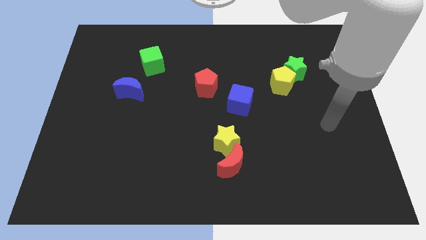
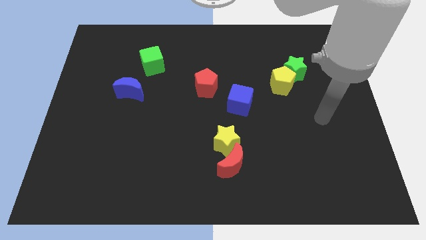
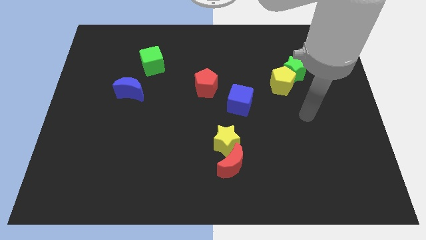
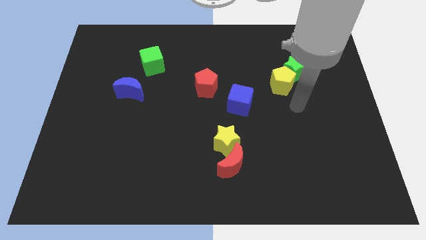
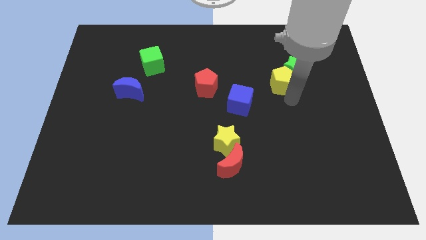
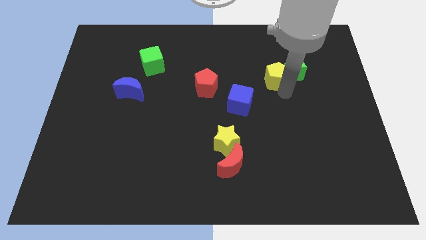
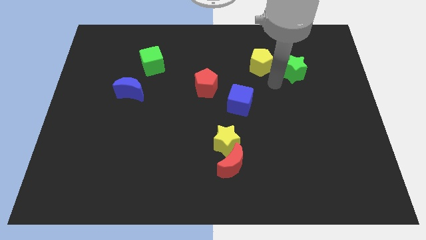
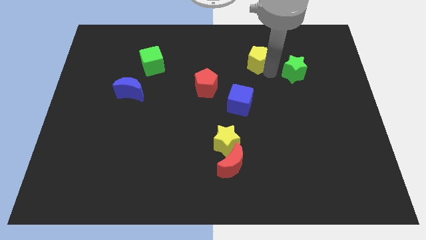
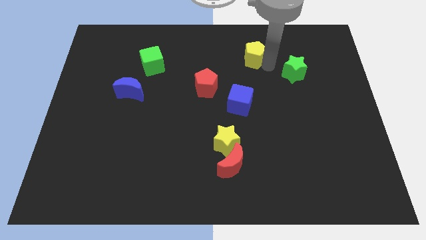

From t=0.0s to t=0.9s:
separate the green star from the yellow pentagon

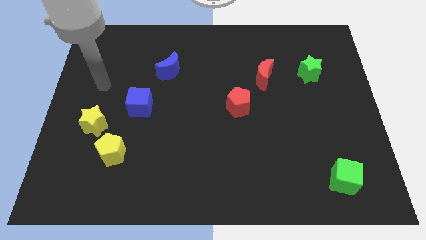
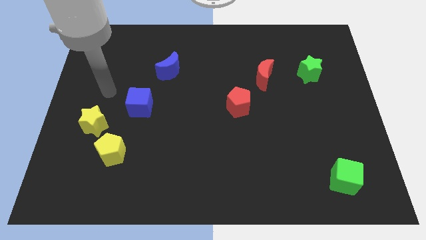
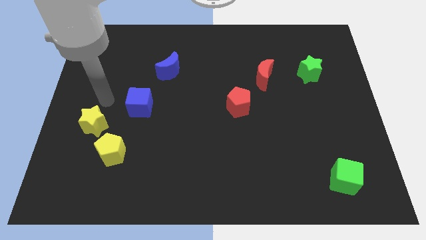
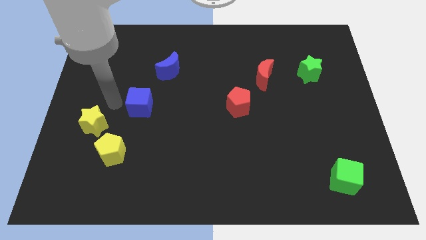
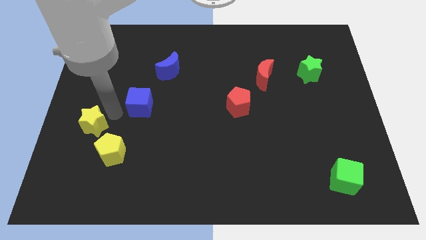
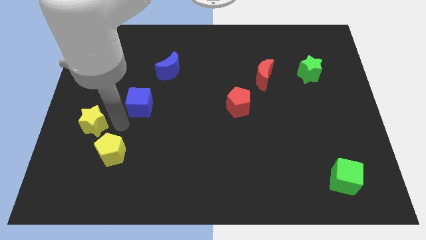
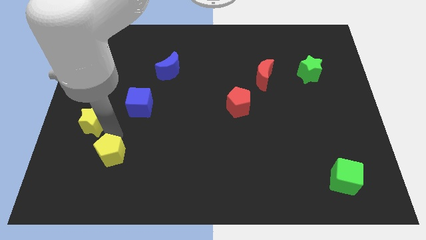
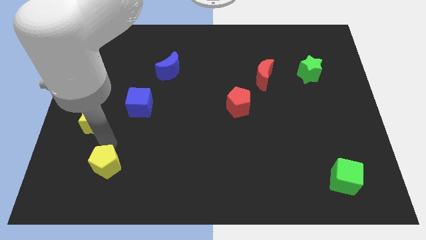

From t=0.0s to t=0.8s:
pull the yellow star apart from the yellow pentagon

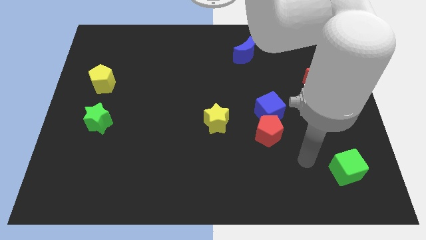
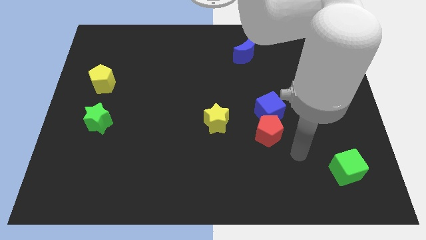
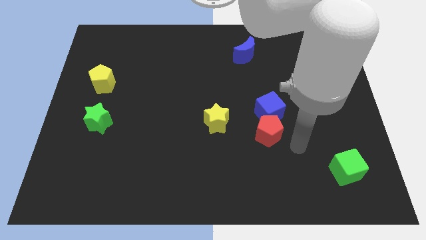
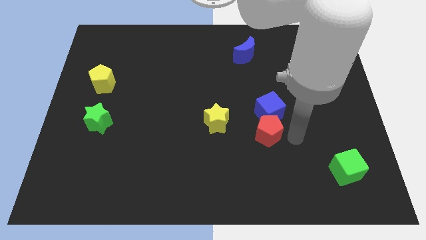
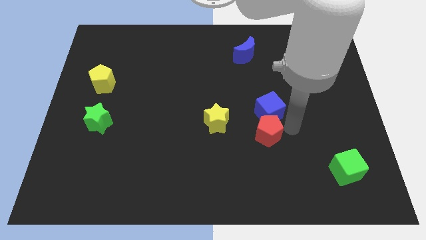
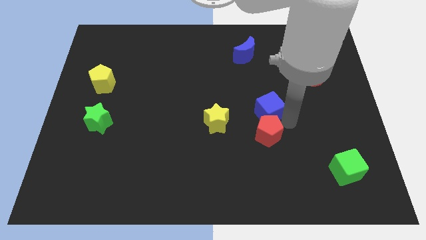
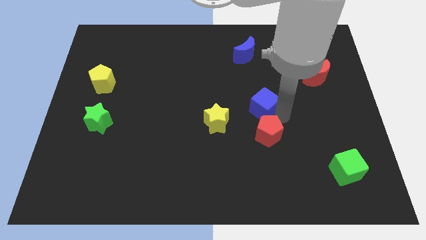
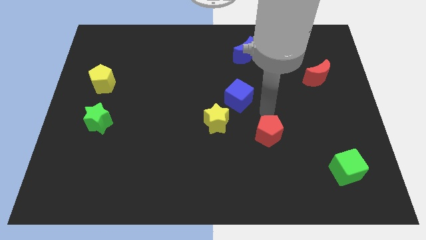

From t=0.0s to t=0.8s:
move the red pentagon away from the blue cube

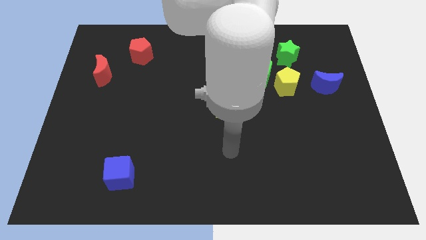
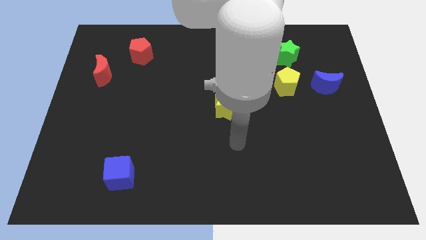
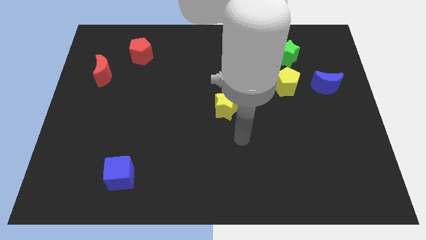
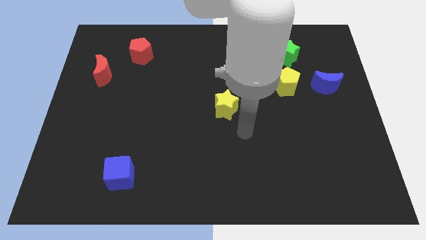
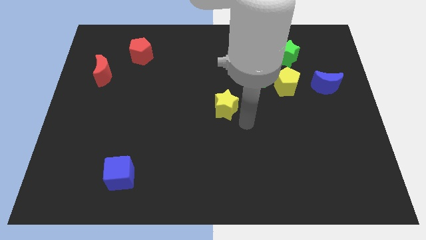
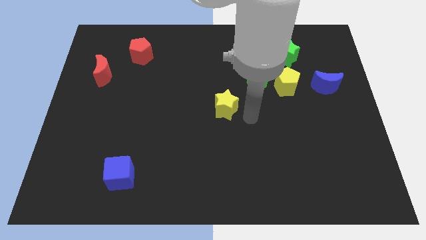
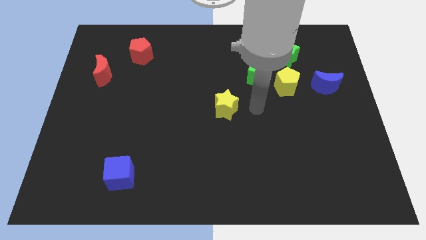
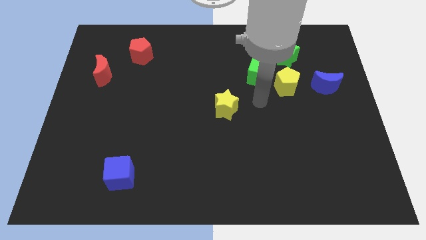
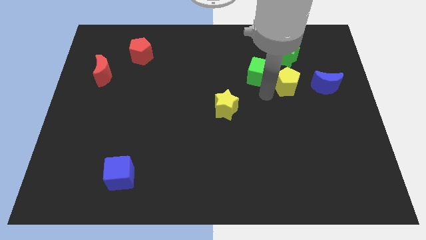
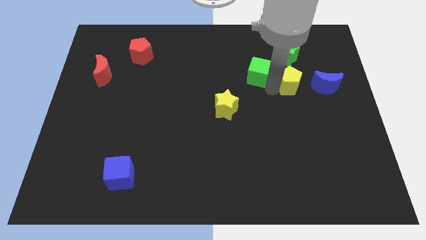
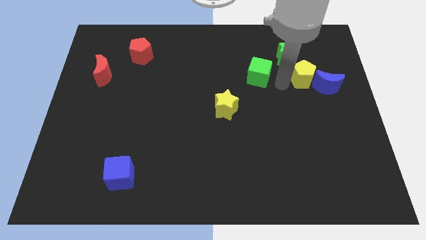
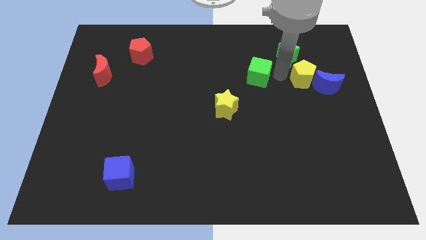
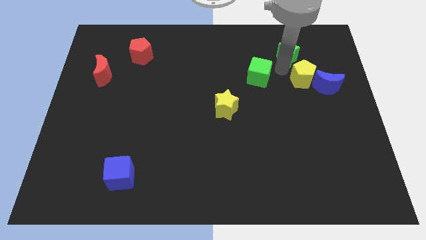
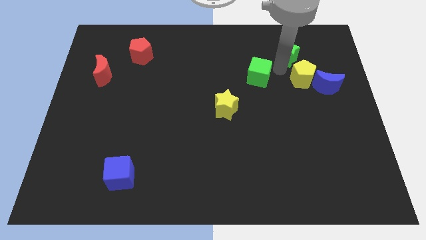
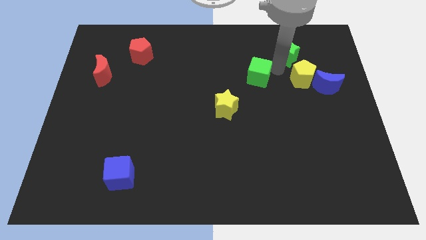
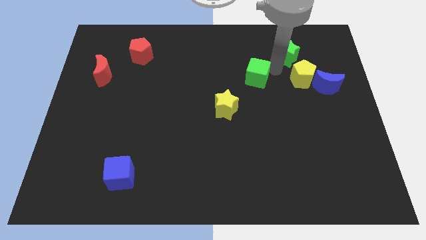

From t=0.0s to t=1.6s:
separate the green cube from the yellow pentagon and green star

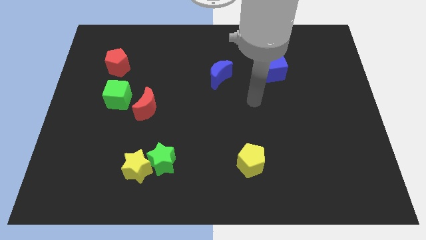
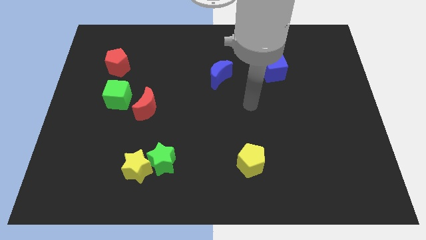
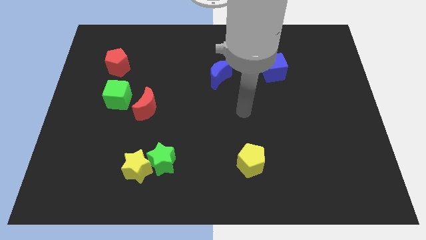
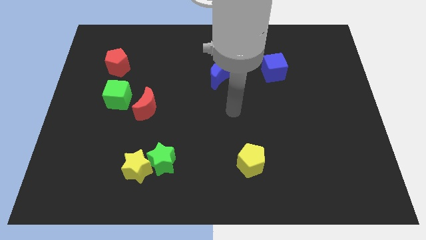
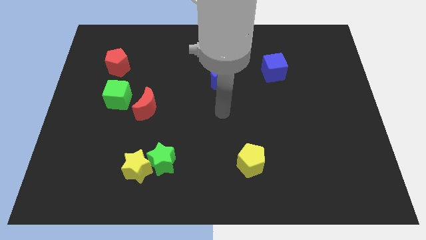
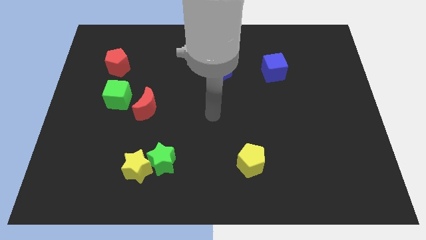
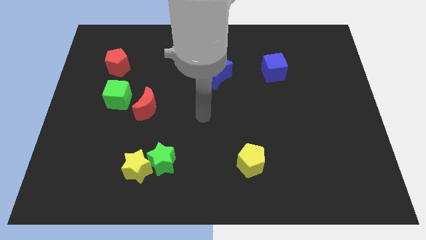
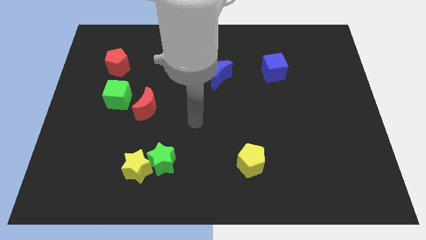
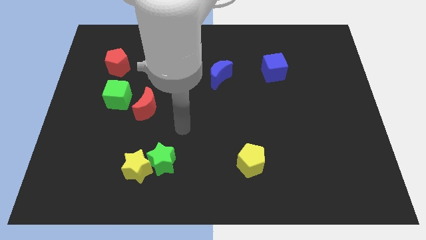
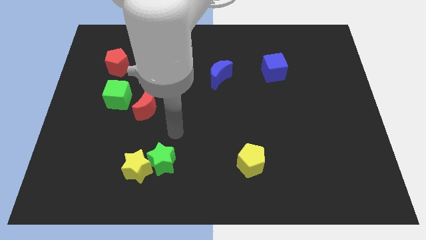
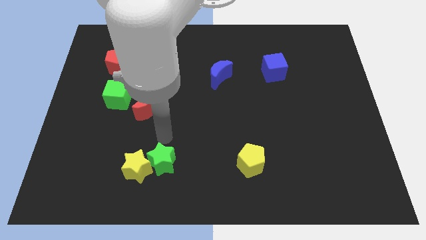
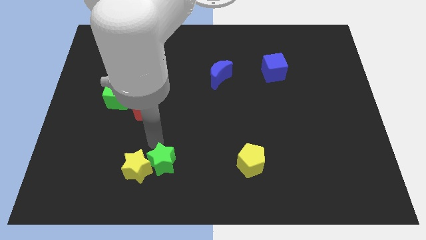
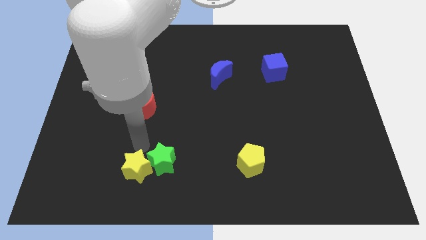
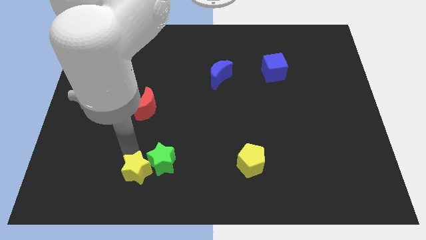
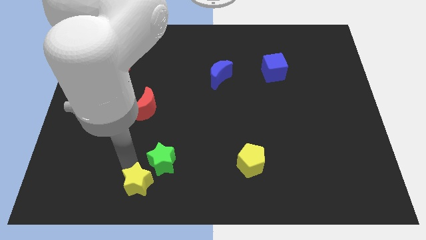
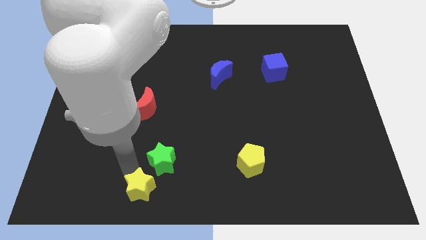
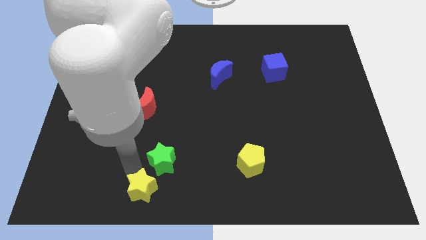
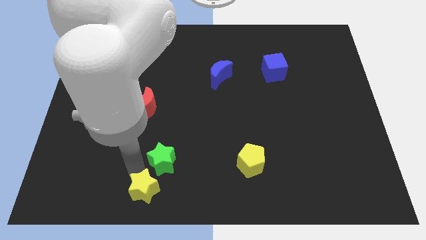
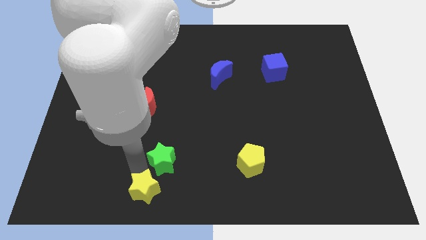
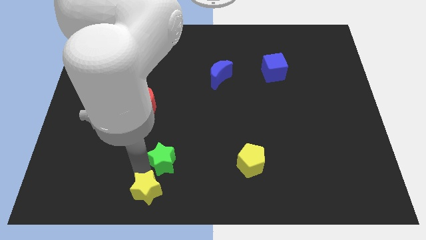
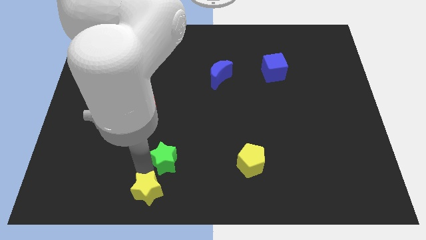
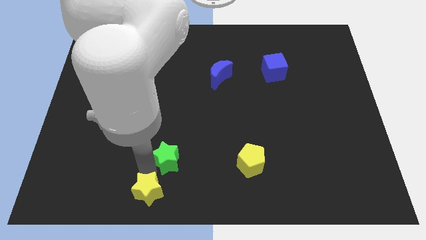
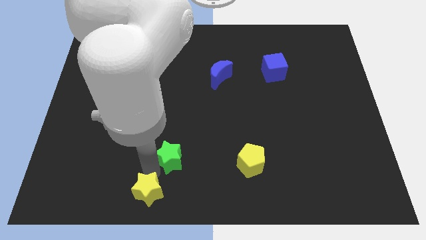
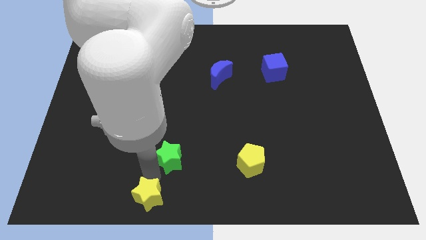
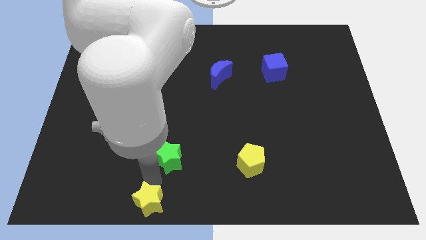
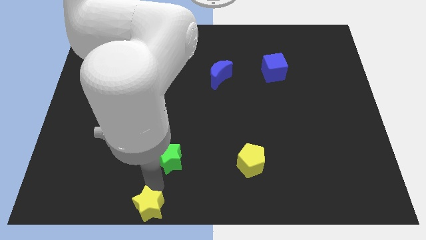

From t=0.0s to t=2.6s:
separate the green star from the yellow star

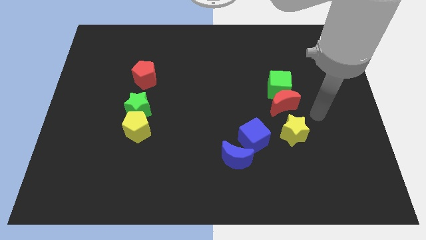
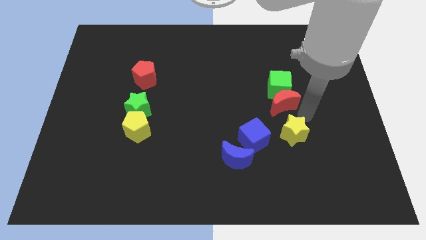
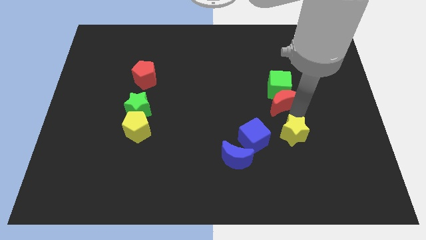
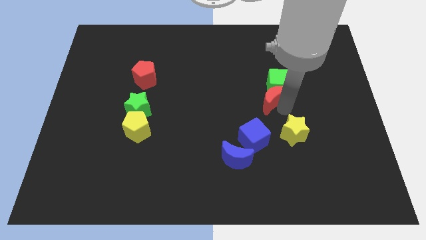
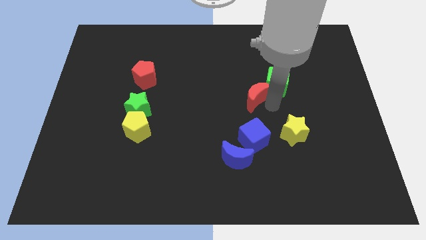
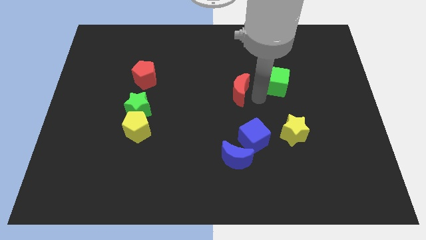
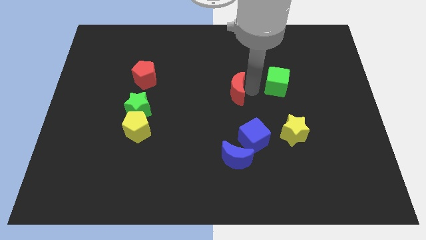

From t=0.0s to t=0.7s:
separate the green cube from the red moon

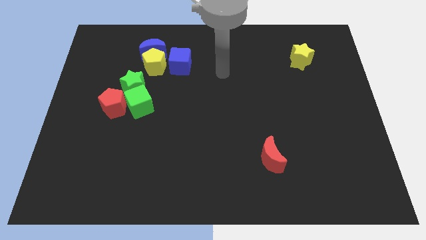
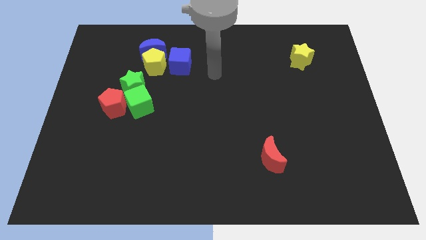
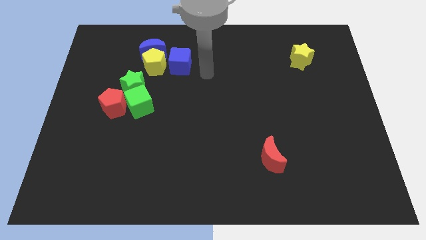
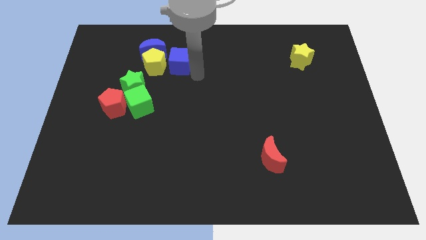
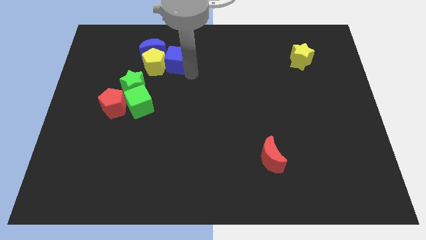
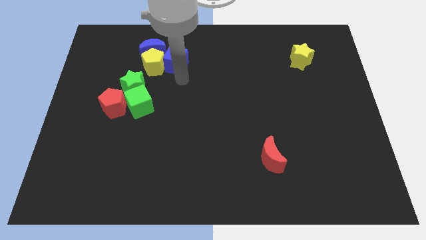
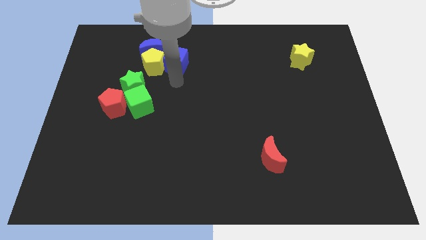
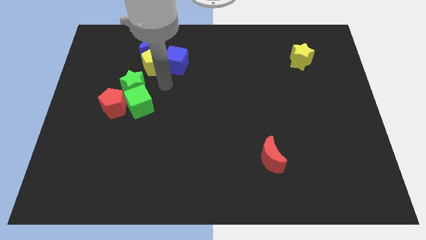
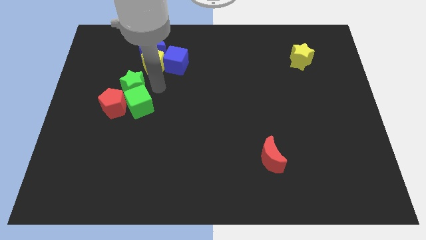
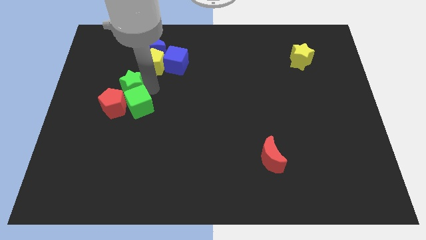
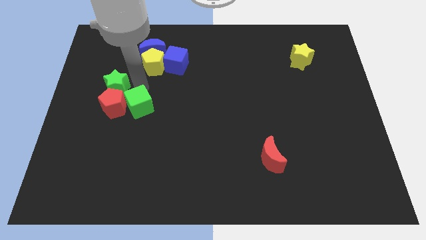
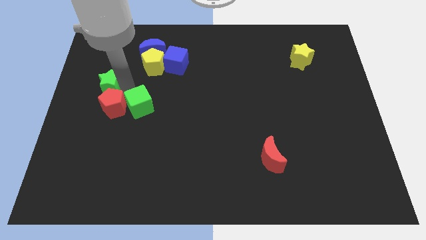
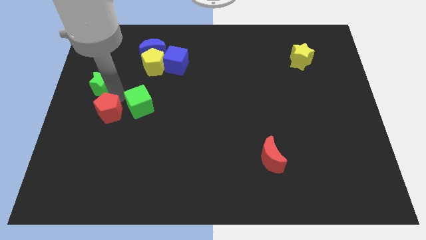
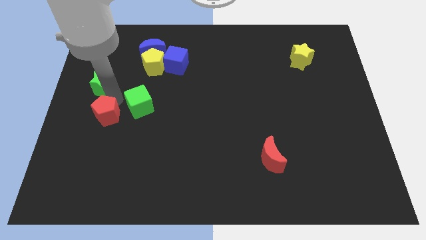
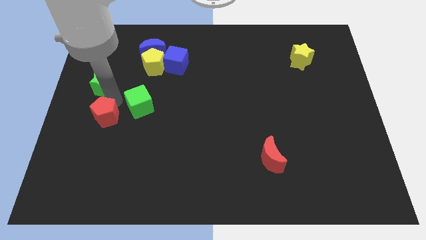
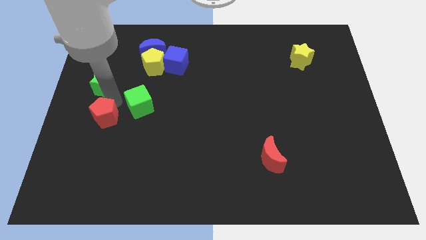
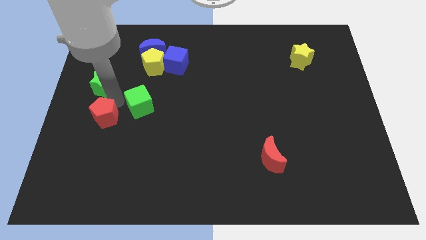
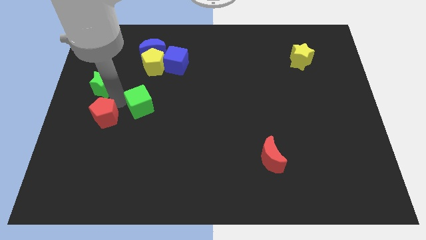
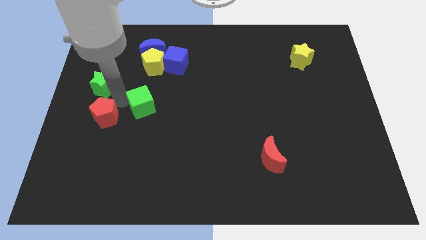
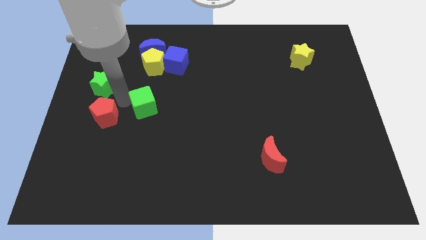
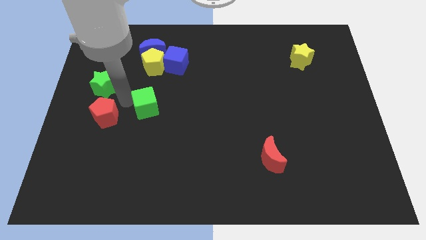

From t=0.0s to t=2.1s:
separate the green cube from the red pentagon and green star
